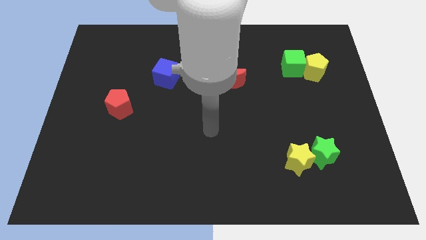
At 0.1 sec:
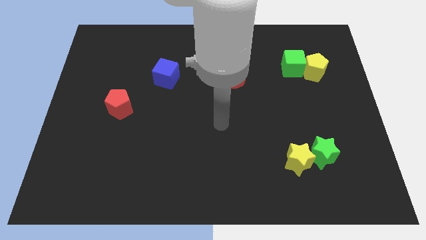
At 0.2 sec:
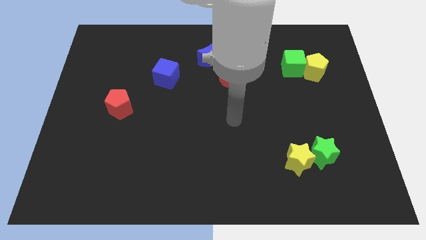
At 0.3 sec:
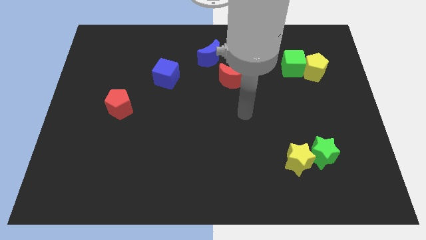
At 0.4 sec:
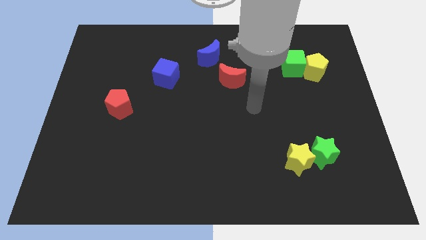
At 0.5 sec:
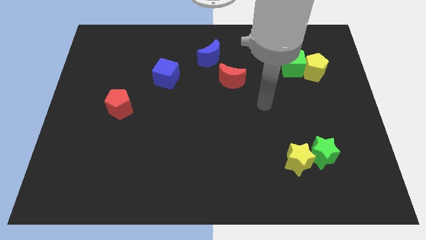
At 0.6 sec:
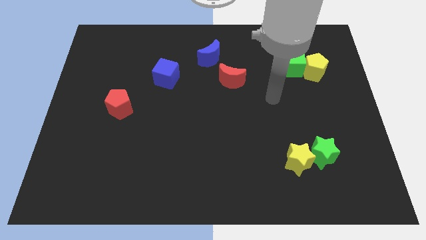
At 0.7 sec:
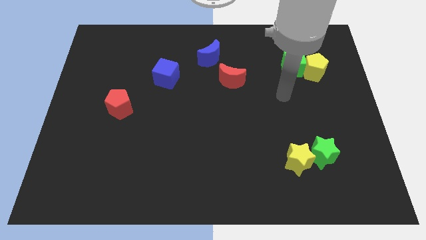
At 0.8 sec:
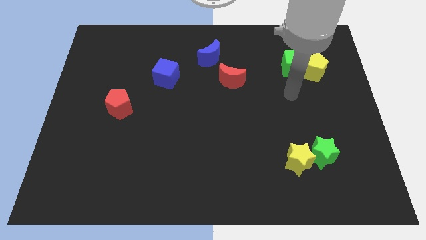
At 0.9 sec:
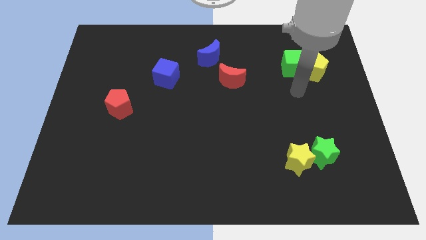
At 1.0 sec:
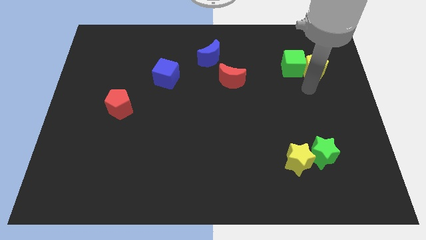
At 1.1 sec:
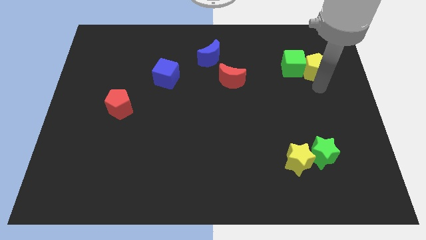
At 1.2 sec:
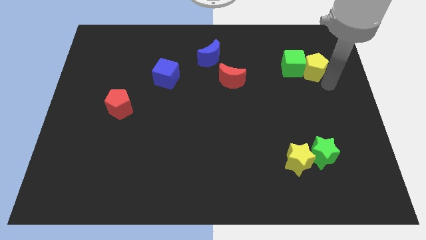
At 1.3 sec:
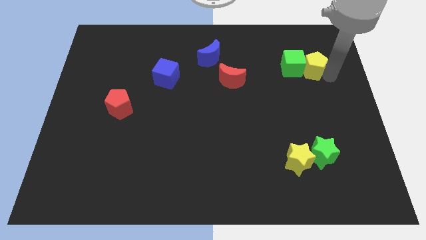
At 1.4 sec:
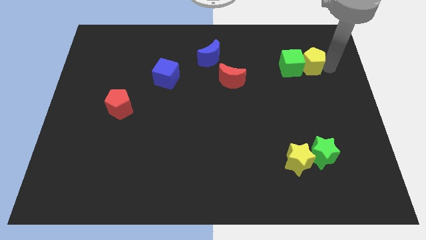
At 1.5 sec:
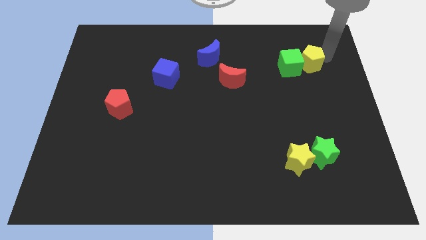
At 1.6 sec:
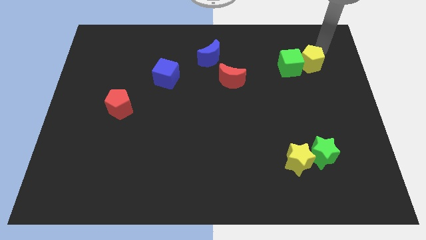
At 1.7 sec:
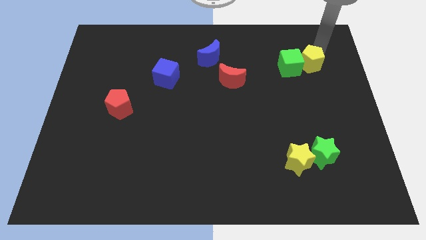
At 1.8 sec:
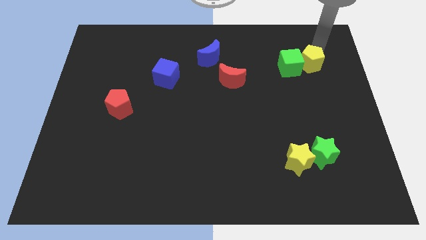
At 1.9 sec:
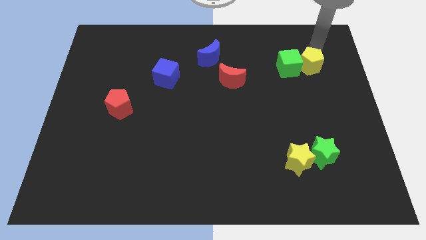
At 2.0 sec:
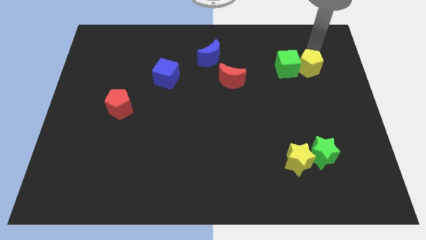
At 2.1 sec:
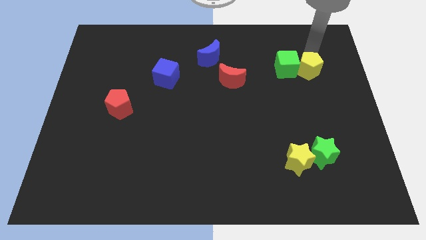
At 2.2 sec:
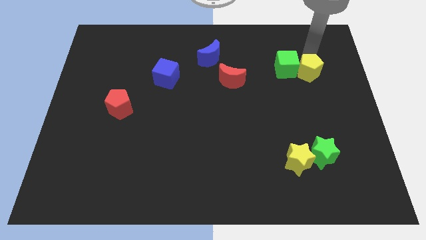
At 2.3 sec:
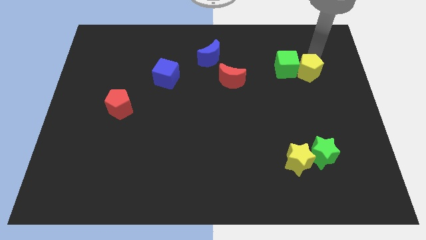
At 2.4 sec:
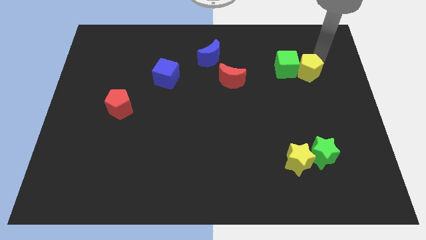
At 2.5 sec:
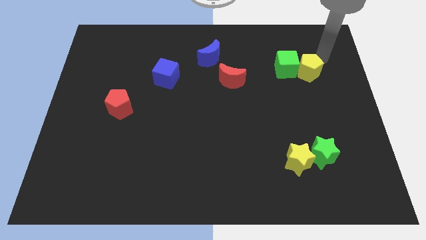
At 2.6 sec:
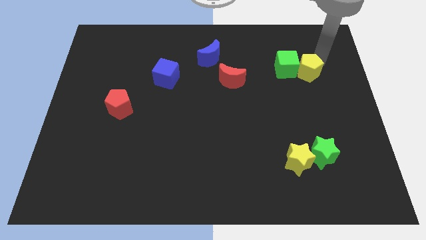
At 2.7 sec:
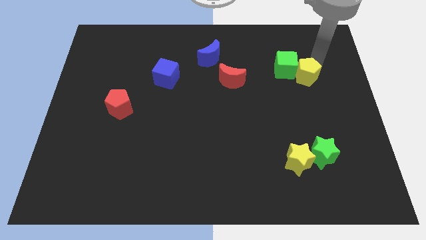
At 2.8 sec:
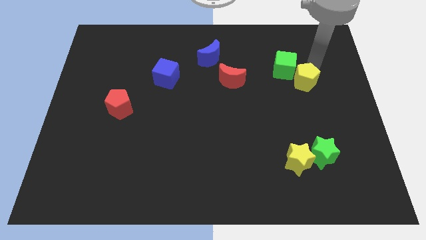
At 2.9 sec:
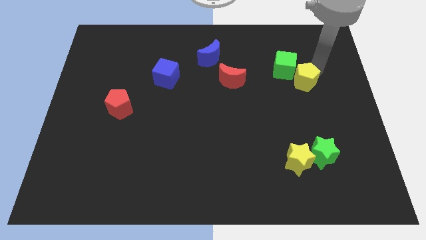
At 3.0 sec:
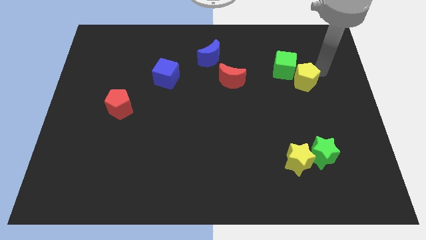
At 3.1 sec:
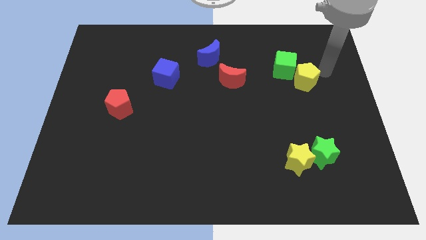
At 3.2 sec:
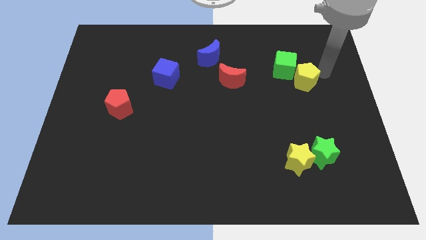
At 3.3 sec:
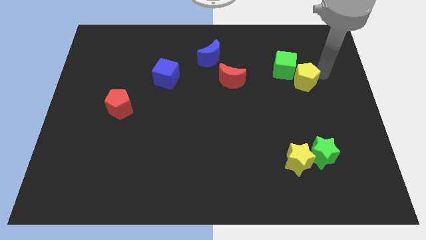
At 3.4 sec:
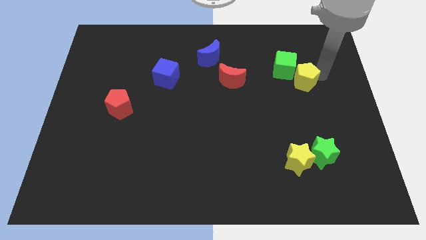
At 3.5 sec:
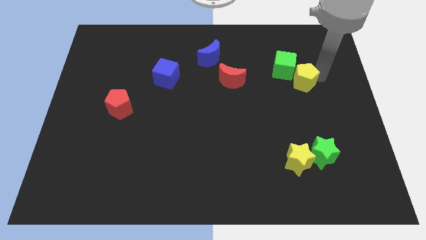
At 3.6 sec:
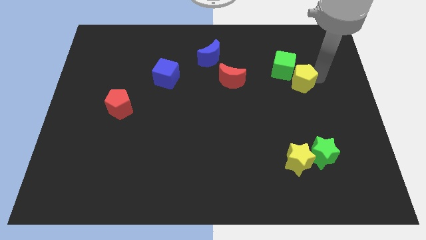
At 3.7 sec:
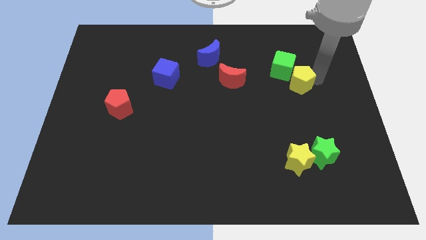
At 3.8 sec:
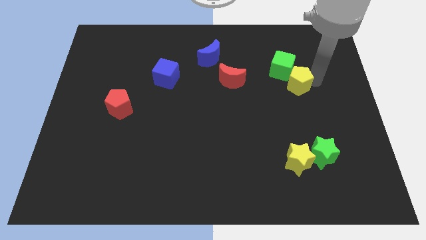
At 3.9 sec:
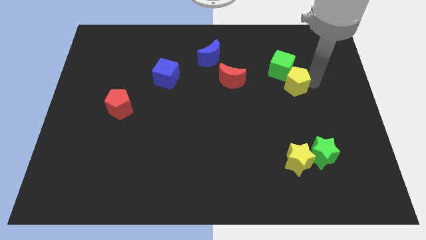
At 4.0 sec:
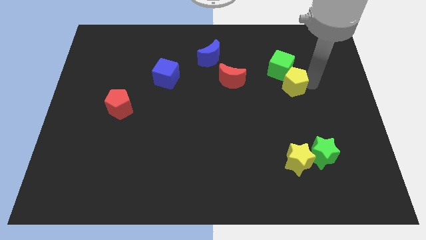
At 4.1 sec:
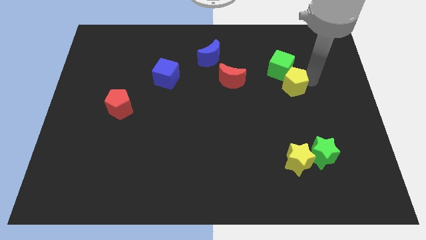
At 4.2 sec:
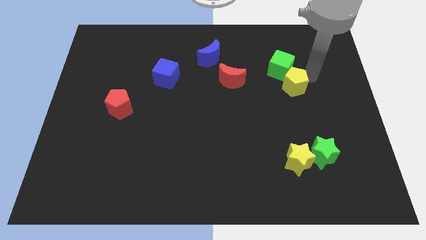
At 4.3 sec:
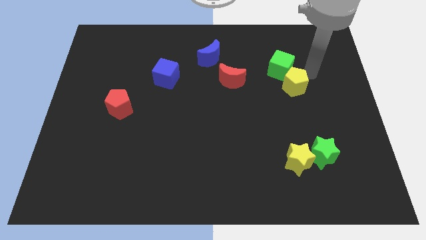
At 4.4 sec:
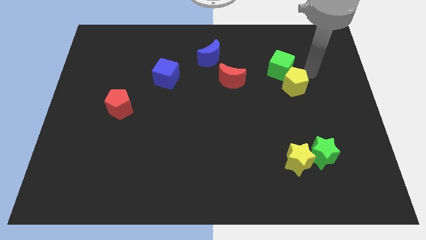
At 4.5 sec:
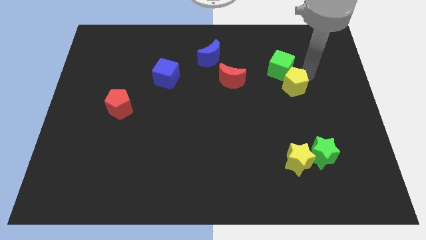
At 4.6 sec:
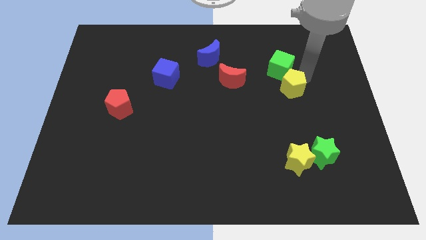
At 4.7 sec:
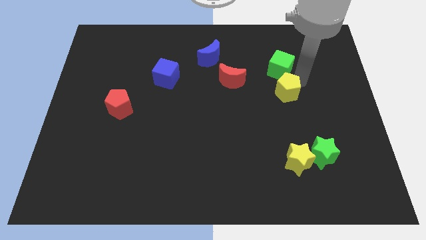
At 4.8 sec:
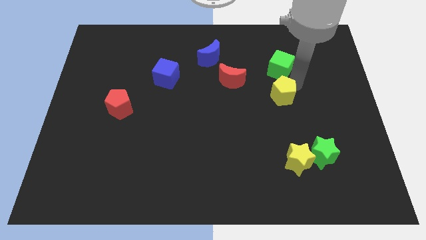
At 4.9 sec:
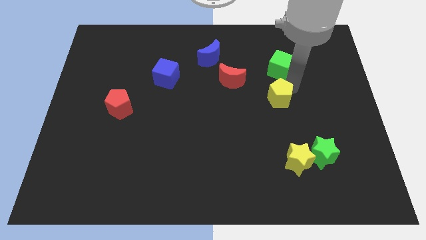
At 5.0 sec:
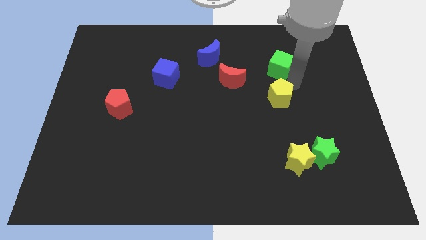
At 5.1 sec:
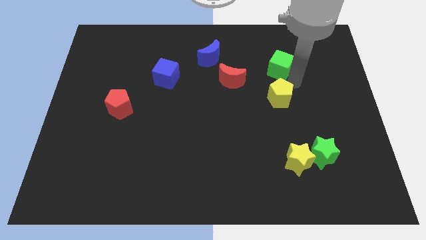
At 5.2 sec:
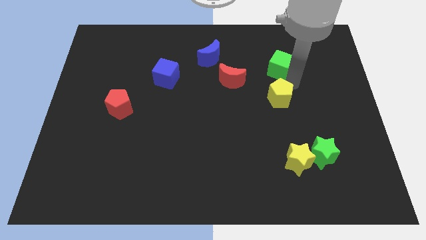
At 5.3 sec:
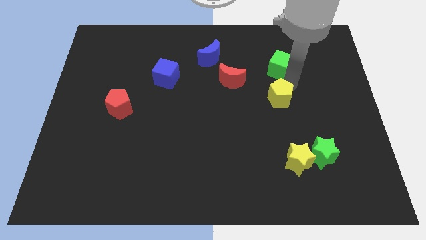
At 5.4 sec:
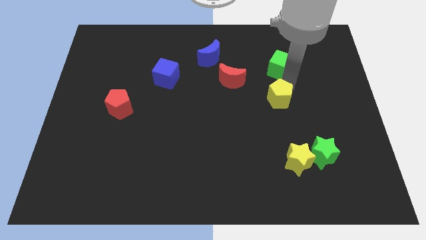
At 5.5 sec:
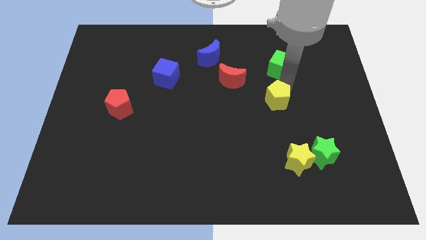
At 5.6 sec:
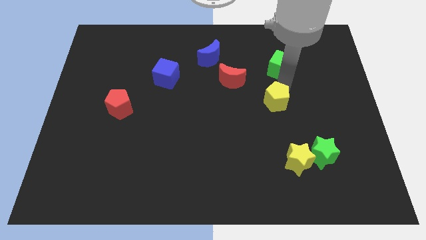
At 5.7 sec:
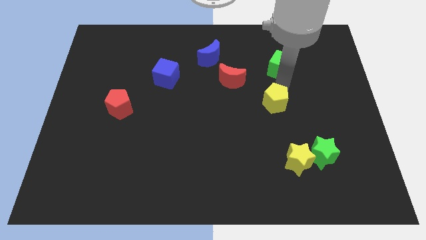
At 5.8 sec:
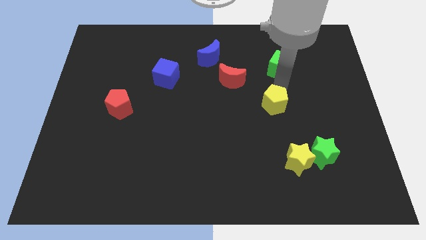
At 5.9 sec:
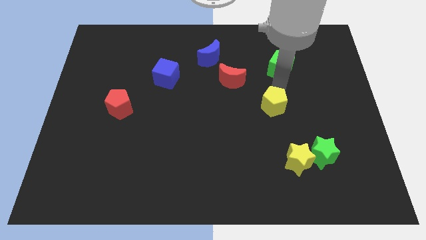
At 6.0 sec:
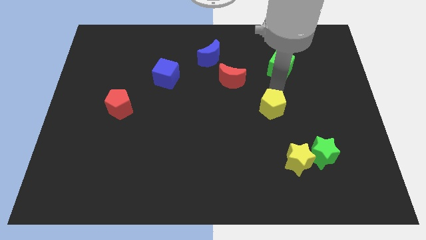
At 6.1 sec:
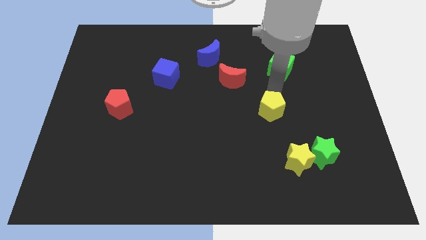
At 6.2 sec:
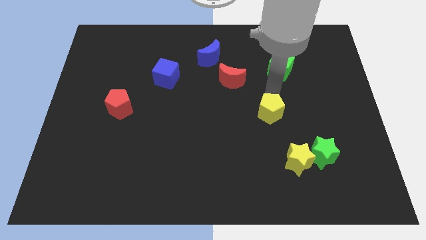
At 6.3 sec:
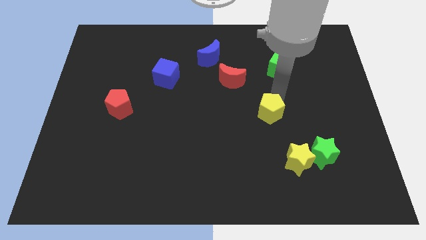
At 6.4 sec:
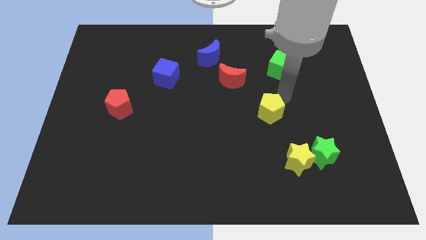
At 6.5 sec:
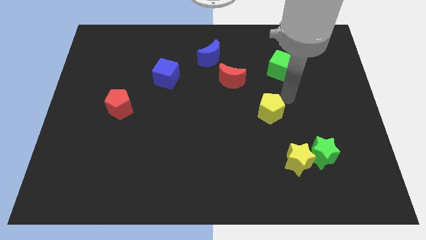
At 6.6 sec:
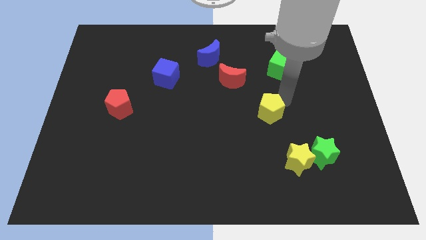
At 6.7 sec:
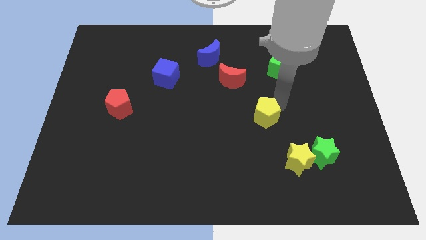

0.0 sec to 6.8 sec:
slide the yellow pentagon diagonally downwards and to the left

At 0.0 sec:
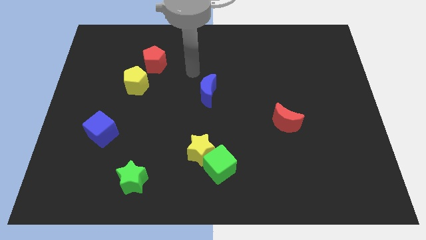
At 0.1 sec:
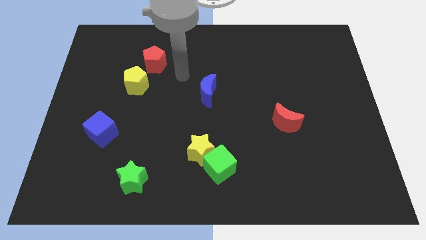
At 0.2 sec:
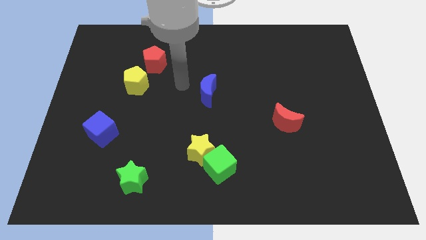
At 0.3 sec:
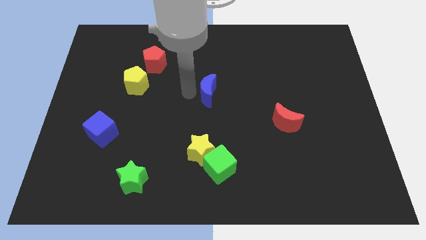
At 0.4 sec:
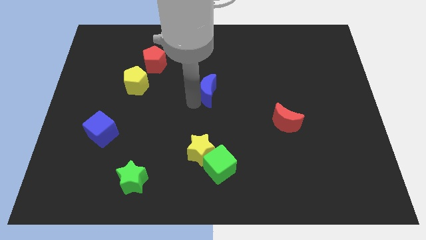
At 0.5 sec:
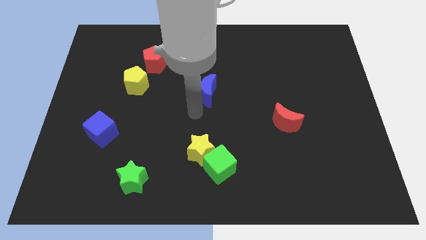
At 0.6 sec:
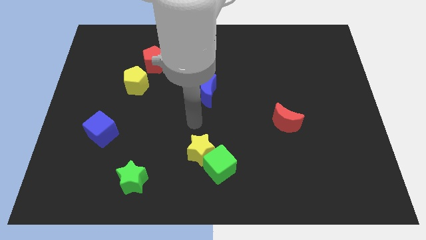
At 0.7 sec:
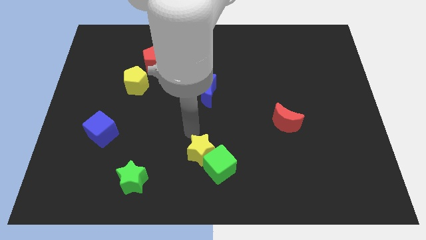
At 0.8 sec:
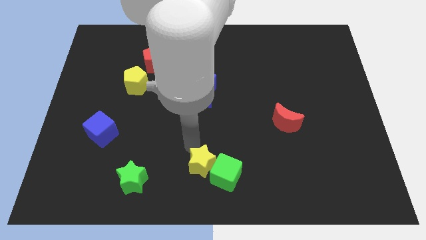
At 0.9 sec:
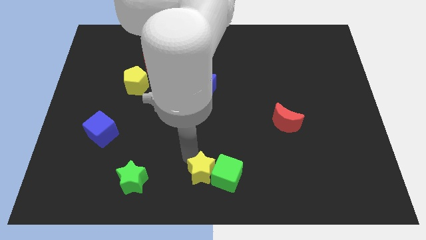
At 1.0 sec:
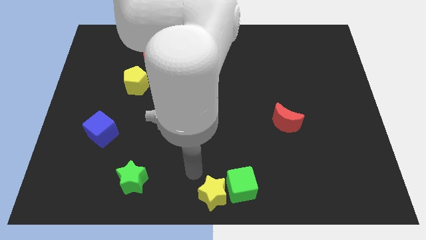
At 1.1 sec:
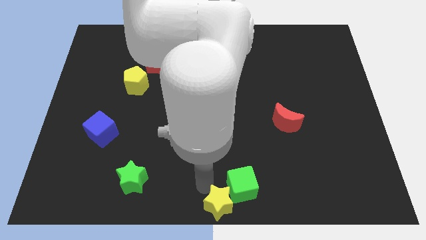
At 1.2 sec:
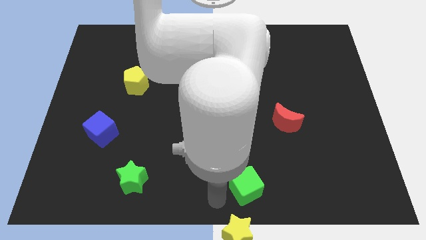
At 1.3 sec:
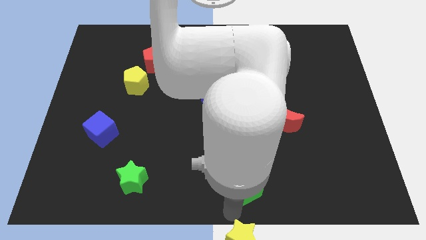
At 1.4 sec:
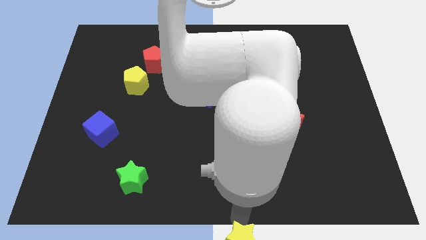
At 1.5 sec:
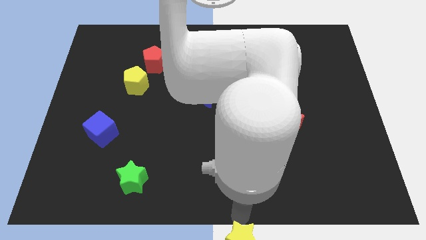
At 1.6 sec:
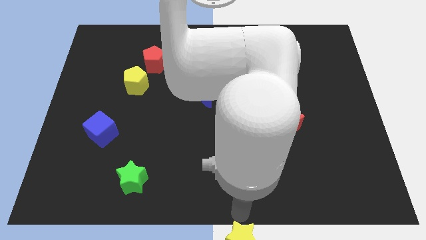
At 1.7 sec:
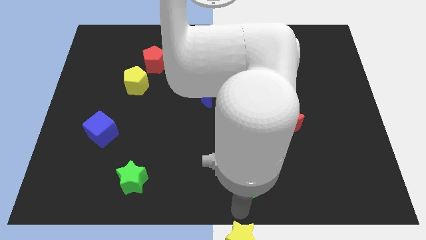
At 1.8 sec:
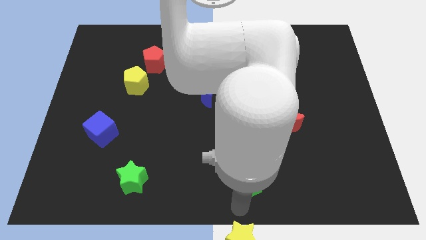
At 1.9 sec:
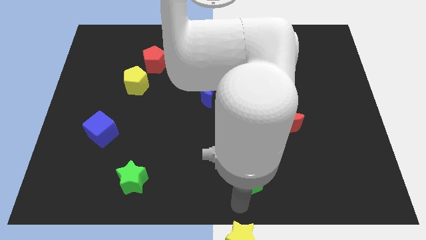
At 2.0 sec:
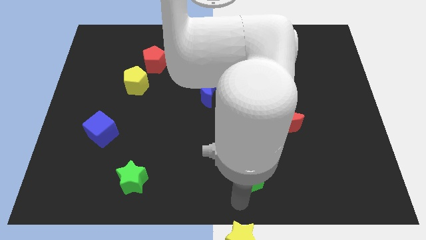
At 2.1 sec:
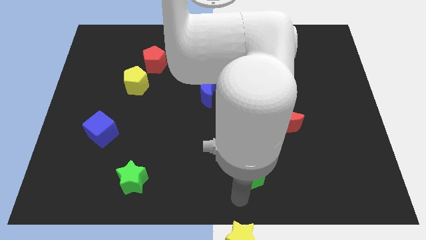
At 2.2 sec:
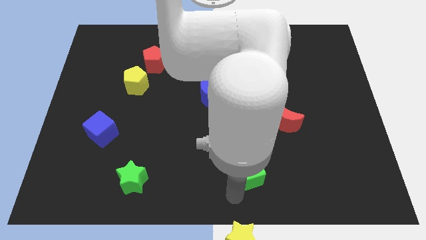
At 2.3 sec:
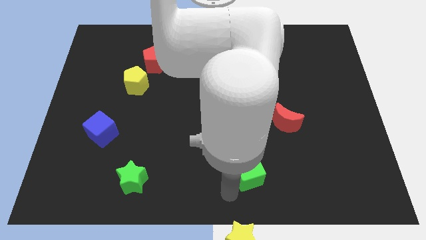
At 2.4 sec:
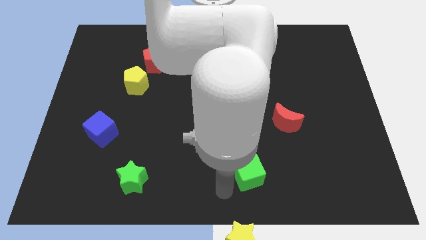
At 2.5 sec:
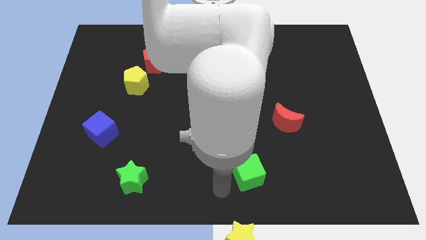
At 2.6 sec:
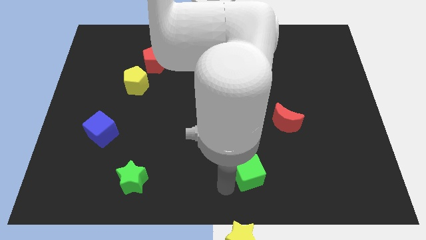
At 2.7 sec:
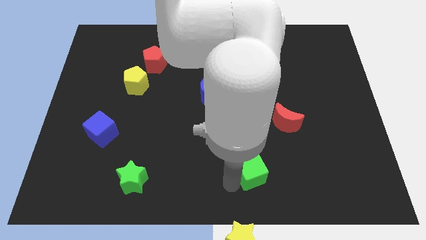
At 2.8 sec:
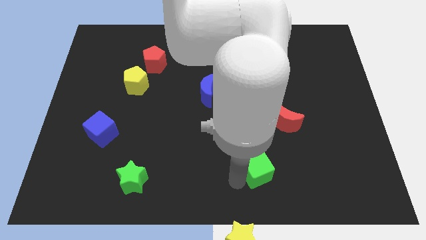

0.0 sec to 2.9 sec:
push the green cube to the right somewhat
